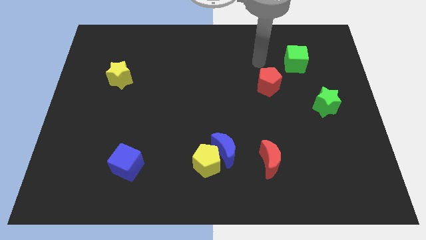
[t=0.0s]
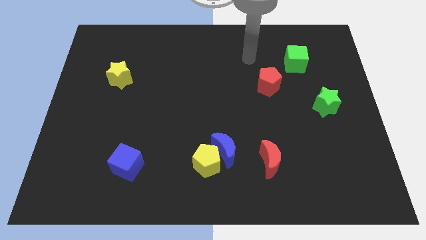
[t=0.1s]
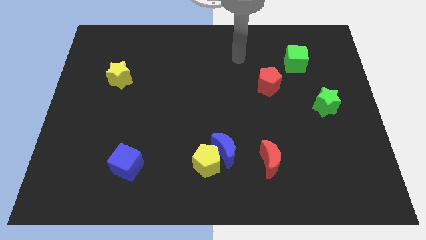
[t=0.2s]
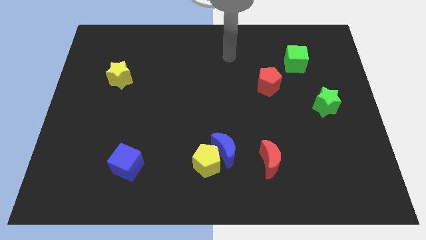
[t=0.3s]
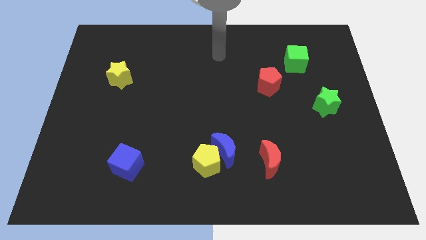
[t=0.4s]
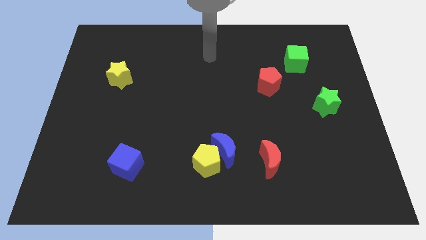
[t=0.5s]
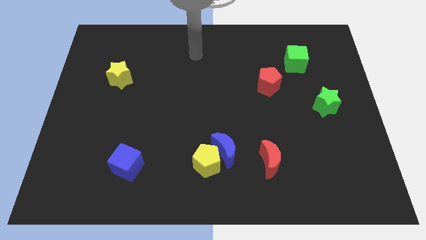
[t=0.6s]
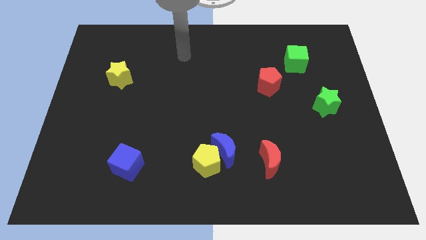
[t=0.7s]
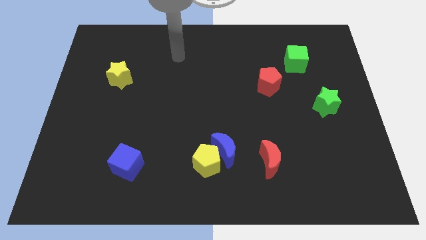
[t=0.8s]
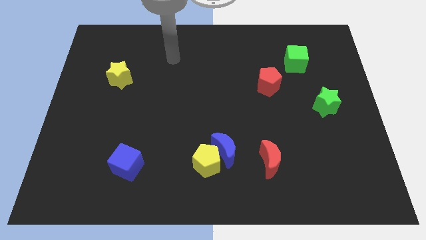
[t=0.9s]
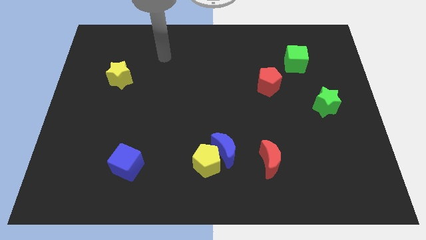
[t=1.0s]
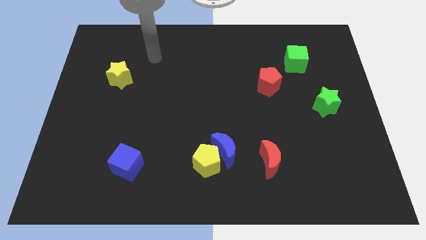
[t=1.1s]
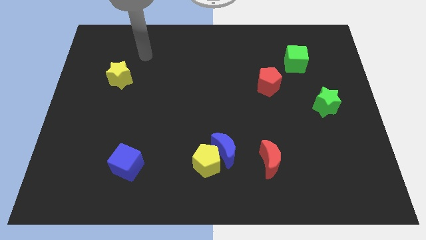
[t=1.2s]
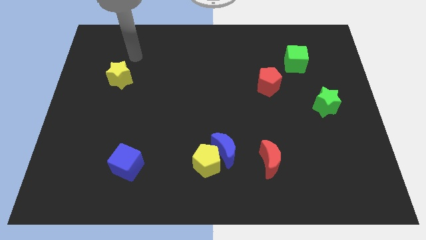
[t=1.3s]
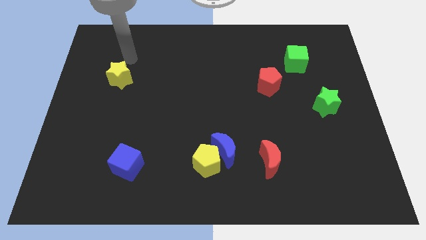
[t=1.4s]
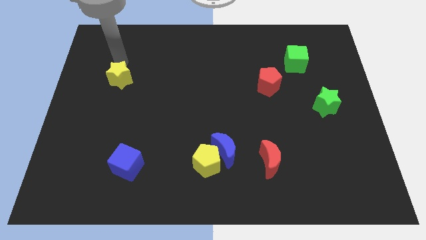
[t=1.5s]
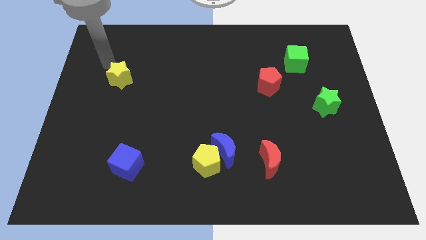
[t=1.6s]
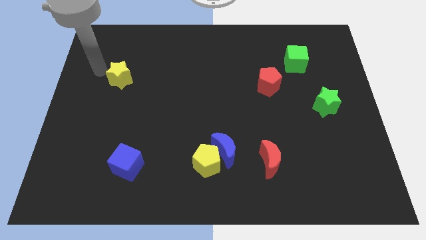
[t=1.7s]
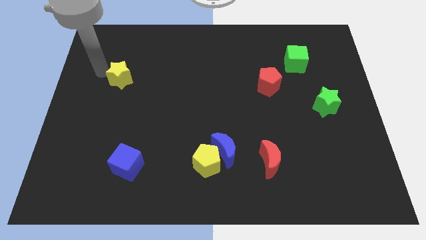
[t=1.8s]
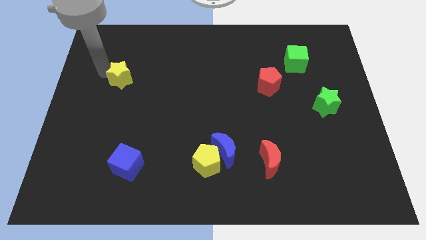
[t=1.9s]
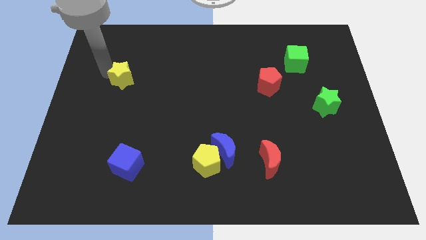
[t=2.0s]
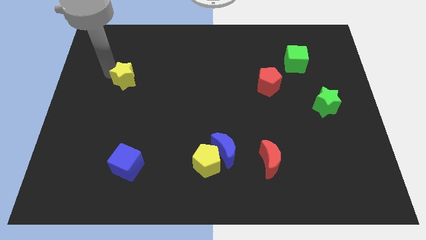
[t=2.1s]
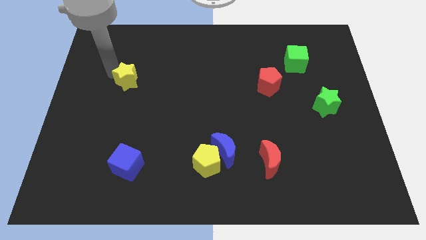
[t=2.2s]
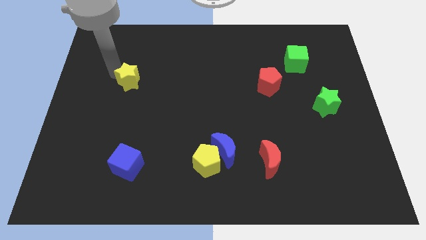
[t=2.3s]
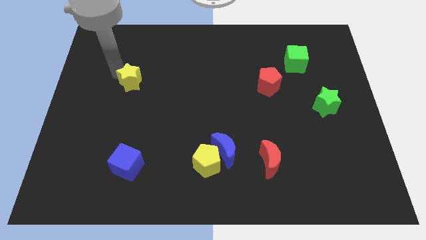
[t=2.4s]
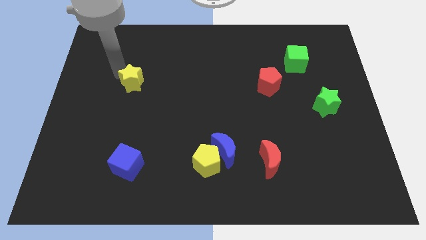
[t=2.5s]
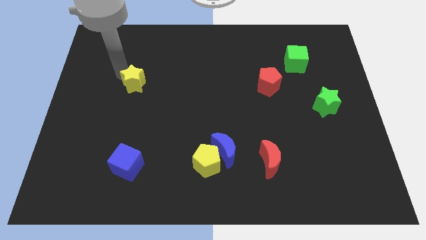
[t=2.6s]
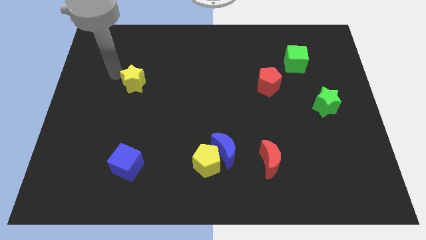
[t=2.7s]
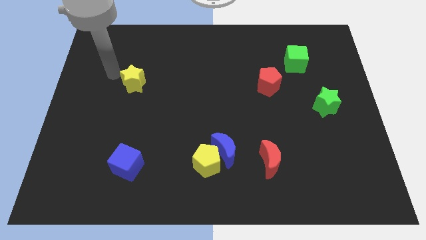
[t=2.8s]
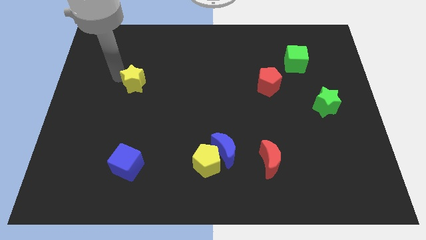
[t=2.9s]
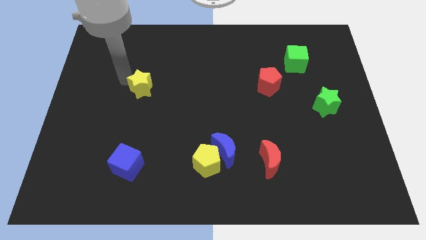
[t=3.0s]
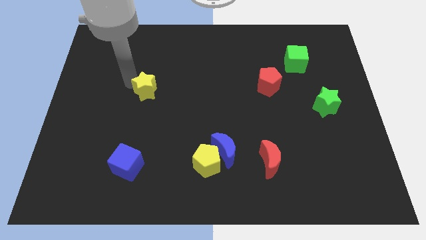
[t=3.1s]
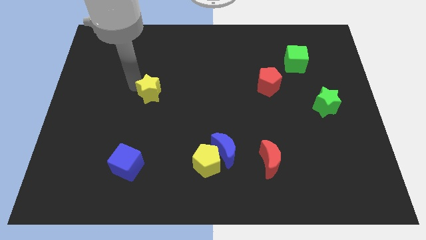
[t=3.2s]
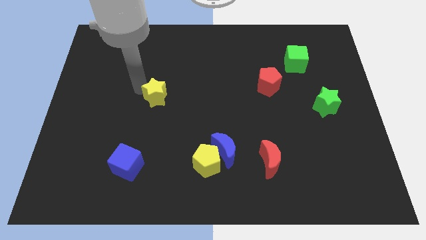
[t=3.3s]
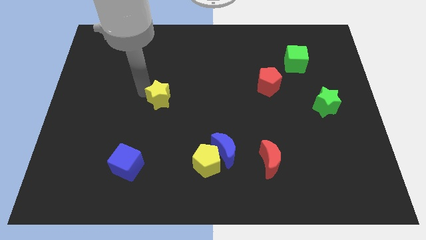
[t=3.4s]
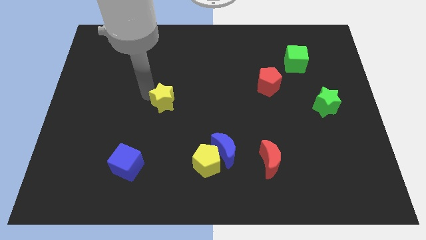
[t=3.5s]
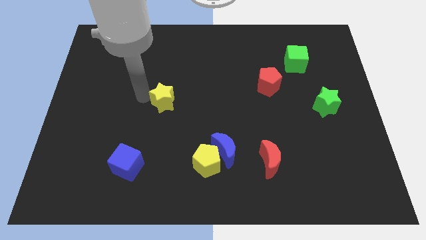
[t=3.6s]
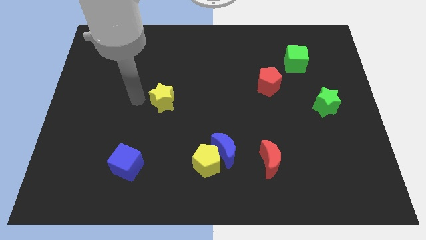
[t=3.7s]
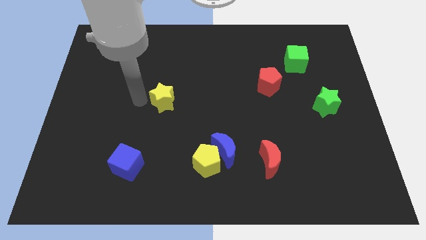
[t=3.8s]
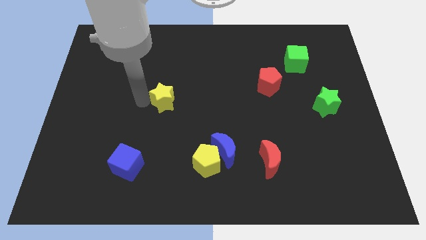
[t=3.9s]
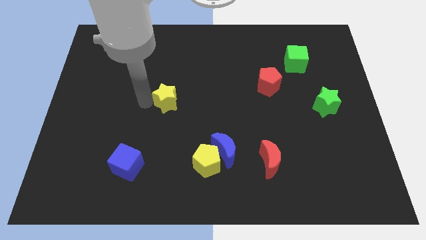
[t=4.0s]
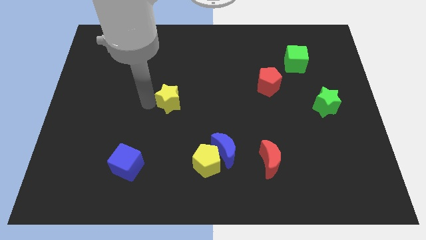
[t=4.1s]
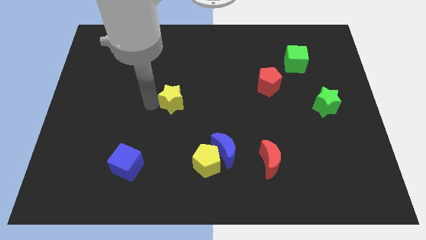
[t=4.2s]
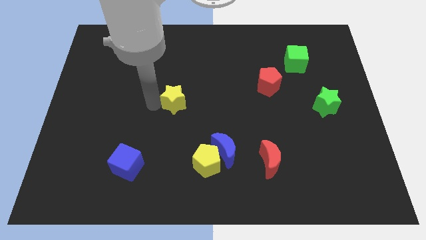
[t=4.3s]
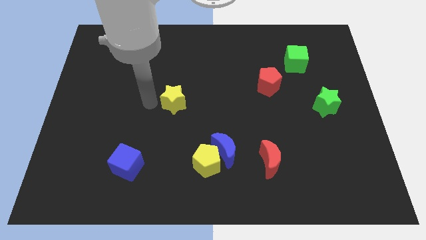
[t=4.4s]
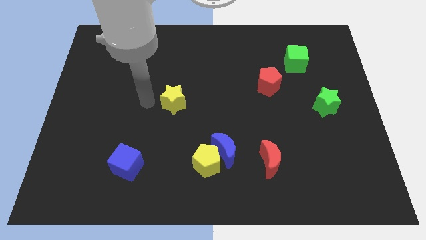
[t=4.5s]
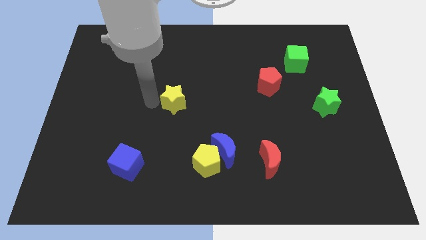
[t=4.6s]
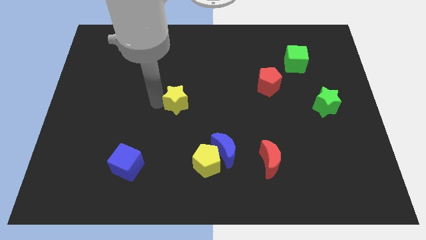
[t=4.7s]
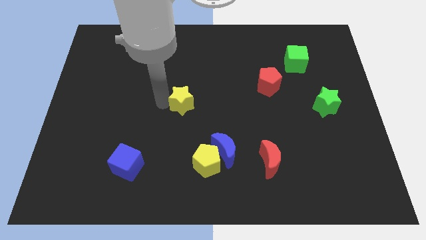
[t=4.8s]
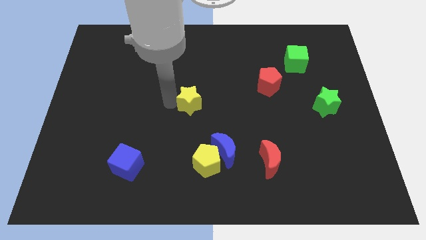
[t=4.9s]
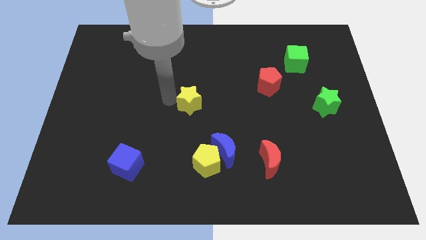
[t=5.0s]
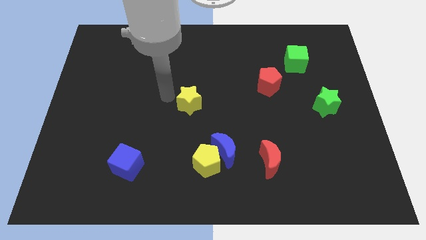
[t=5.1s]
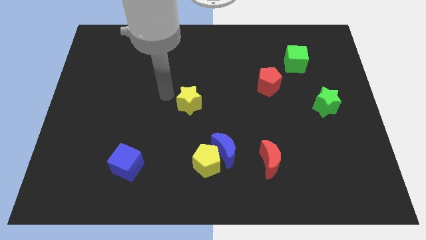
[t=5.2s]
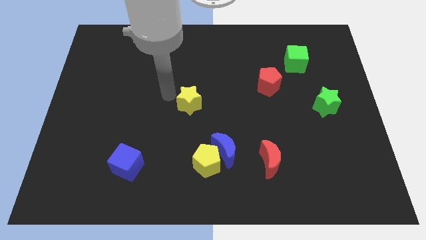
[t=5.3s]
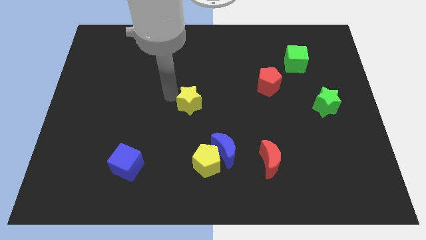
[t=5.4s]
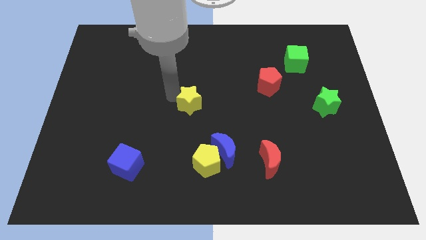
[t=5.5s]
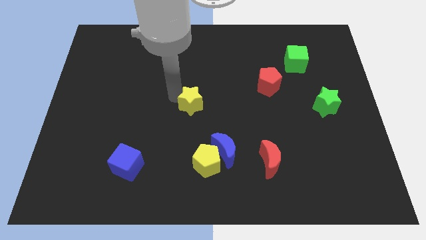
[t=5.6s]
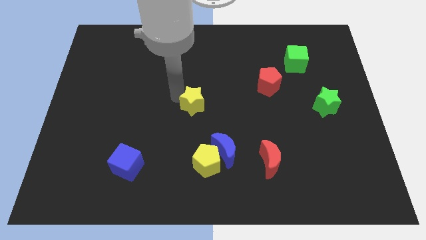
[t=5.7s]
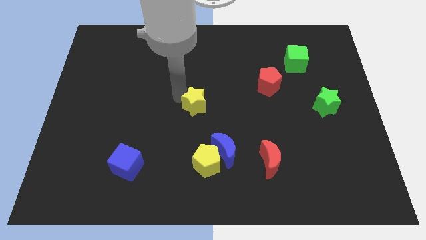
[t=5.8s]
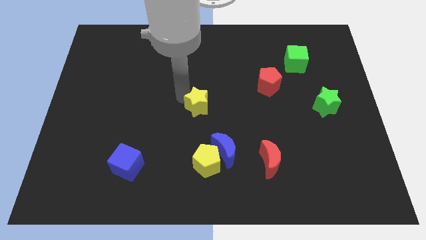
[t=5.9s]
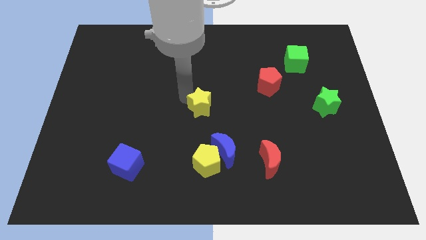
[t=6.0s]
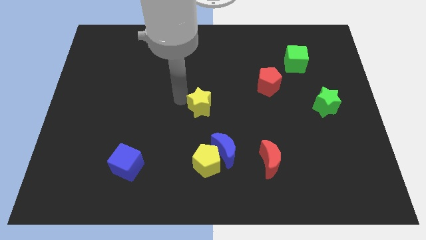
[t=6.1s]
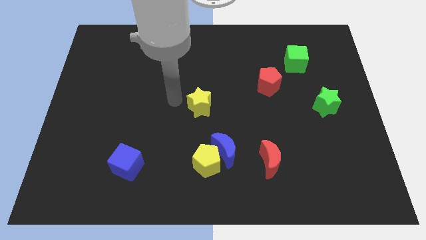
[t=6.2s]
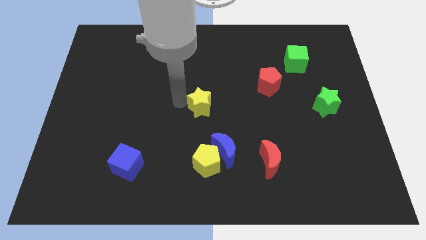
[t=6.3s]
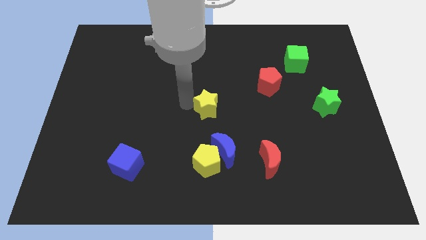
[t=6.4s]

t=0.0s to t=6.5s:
slide the yellow star to the top of the blue moon
